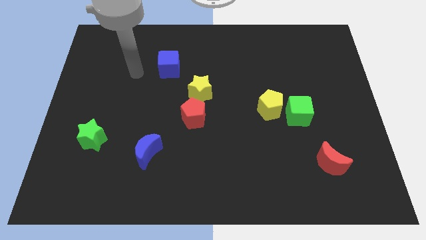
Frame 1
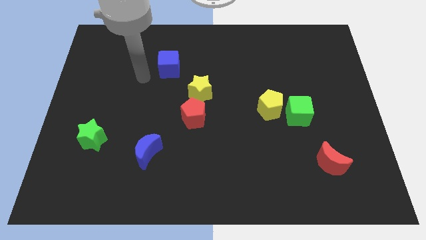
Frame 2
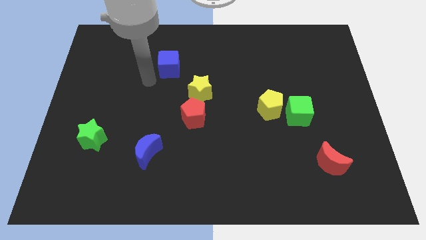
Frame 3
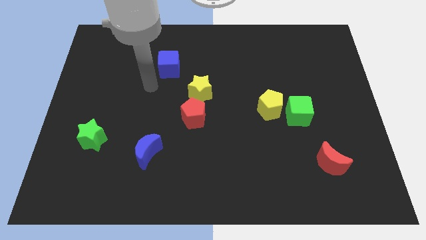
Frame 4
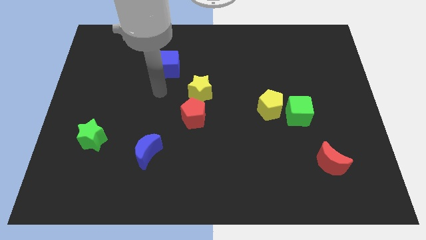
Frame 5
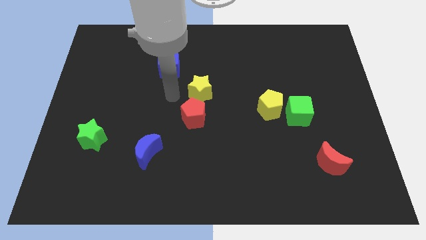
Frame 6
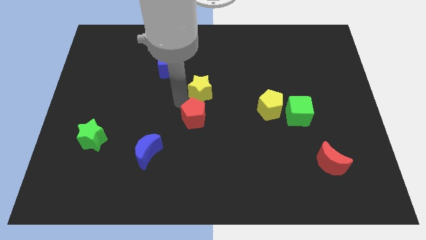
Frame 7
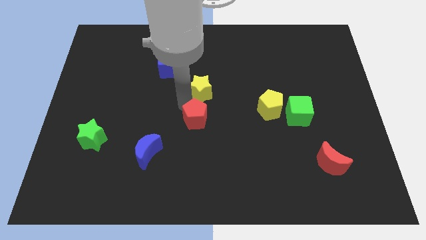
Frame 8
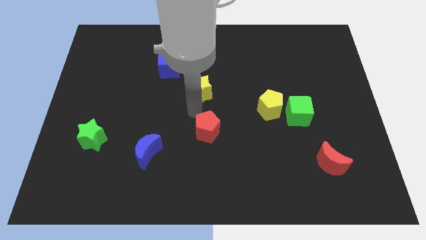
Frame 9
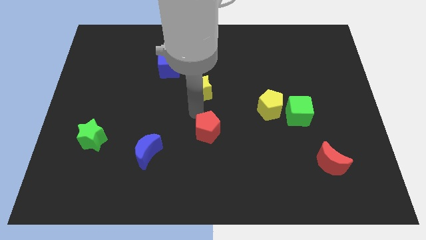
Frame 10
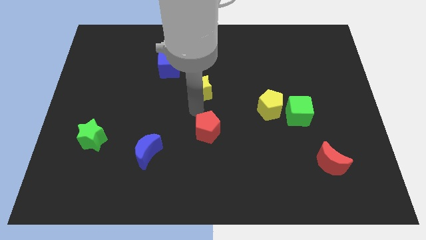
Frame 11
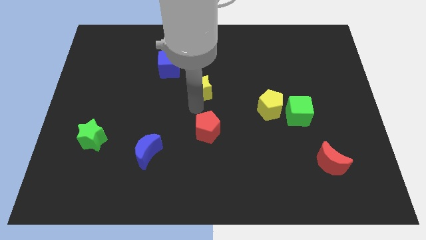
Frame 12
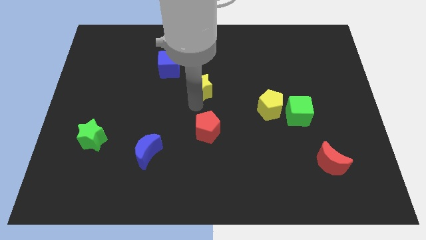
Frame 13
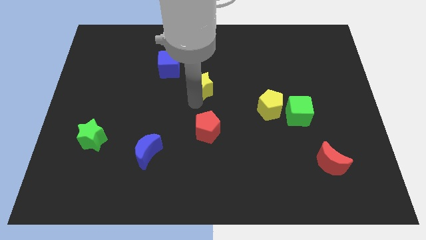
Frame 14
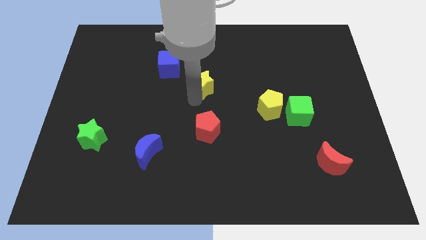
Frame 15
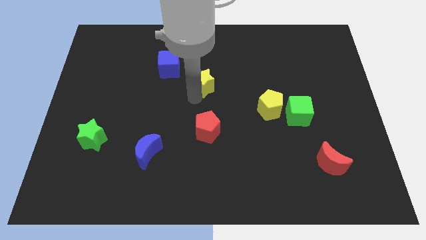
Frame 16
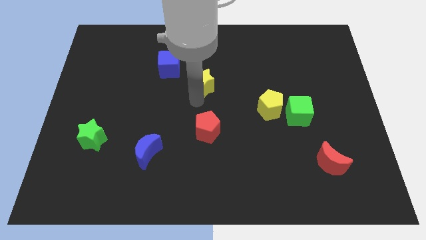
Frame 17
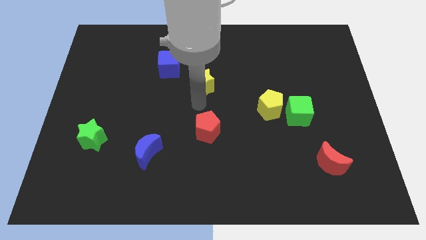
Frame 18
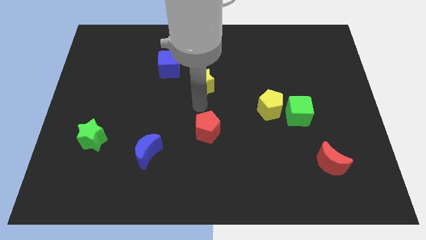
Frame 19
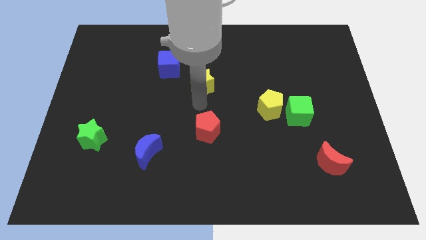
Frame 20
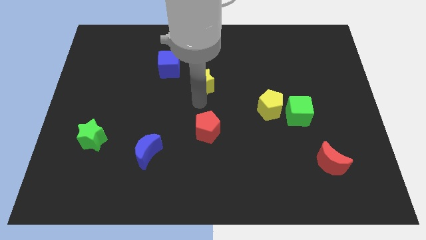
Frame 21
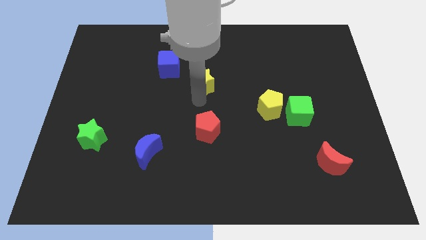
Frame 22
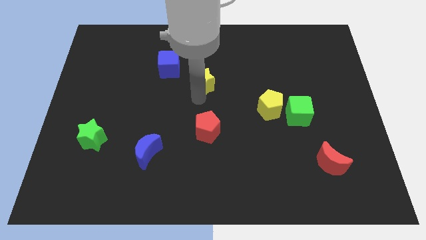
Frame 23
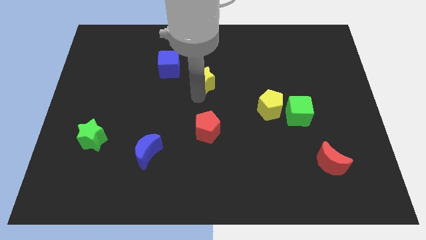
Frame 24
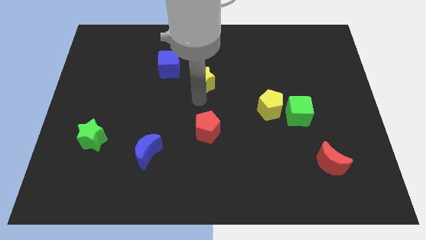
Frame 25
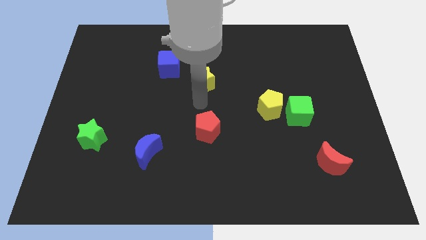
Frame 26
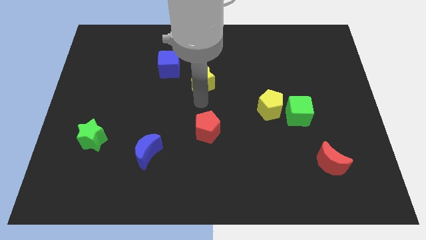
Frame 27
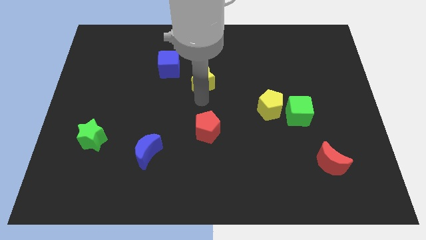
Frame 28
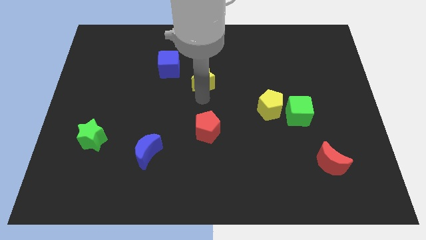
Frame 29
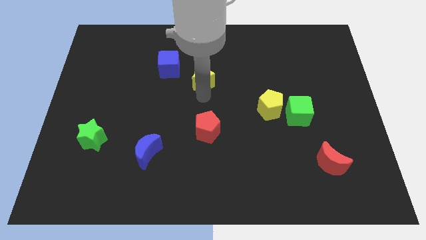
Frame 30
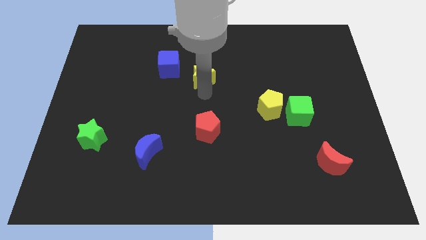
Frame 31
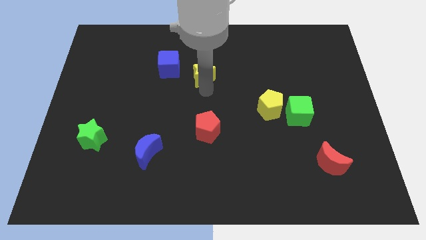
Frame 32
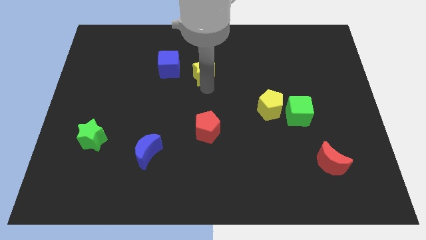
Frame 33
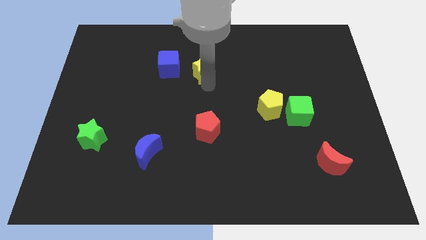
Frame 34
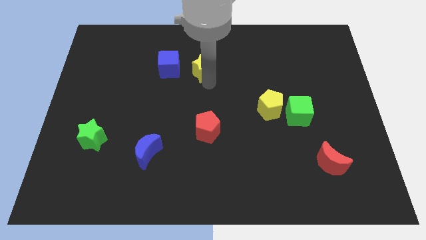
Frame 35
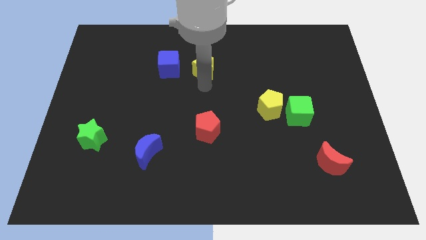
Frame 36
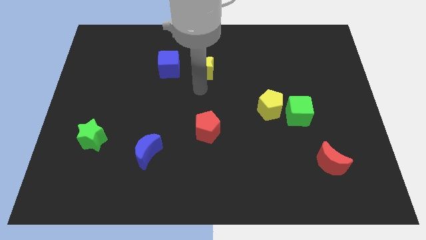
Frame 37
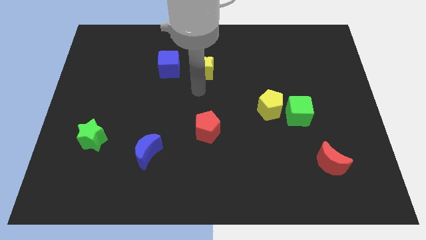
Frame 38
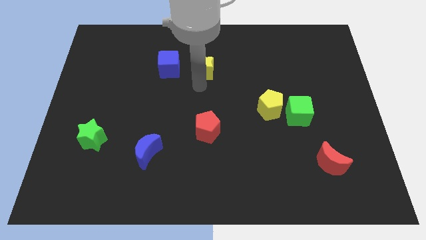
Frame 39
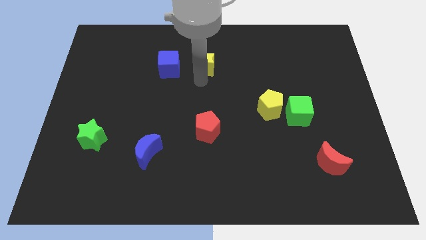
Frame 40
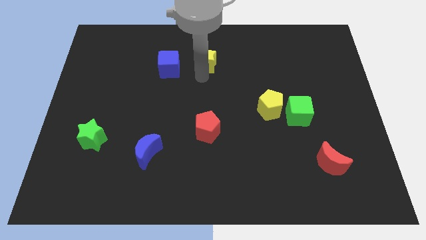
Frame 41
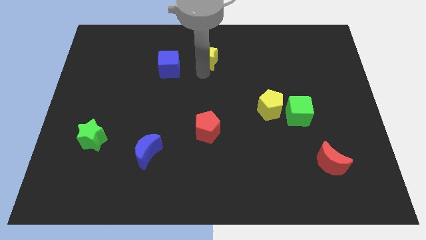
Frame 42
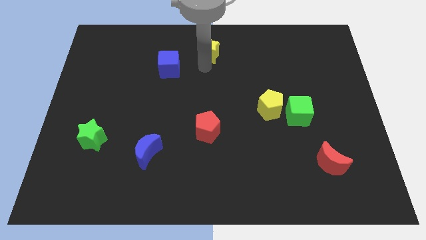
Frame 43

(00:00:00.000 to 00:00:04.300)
push the yellow star to the top

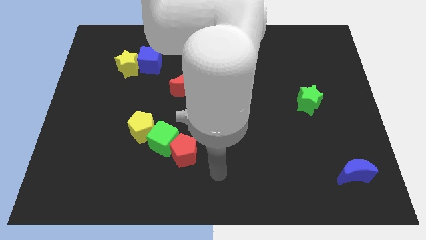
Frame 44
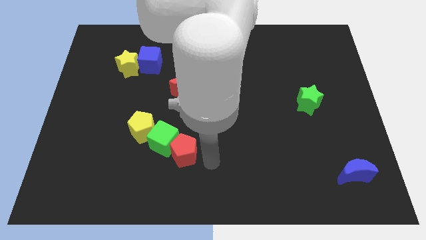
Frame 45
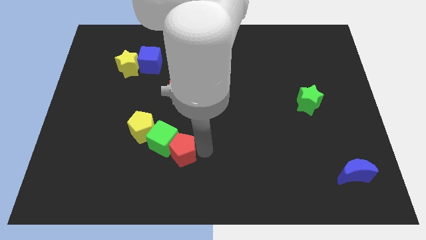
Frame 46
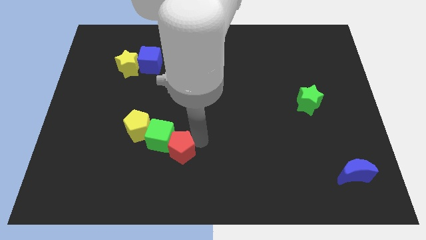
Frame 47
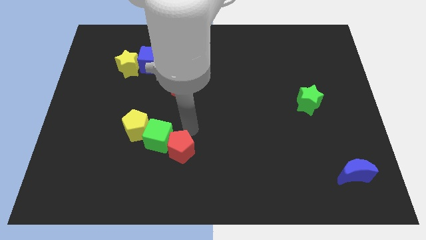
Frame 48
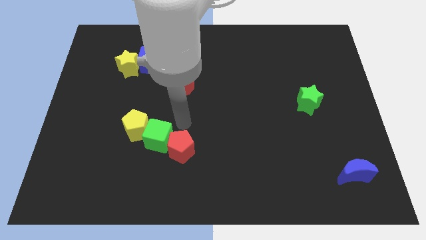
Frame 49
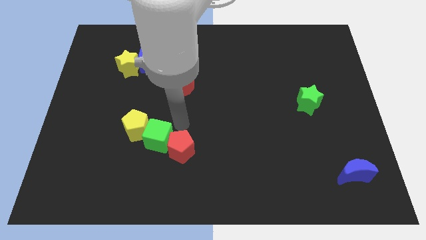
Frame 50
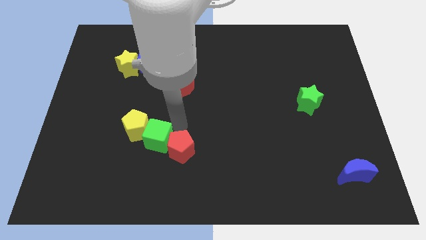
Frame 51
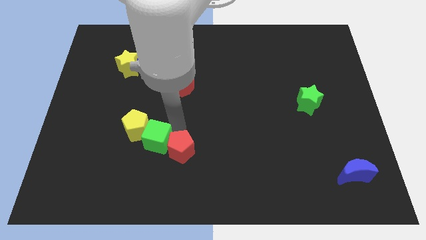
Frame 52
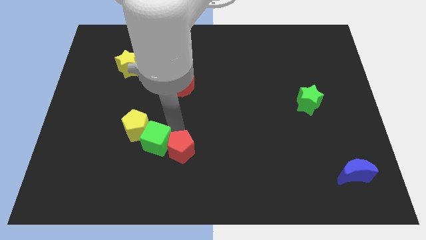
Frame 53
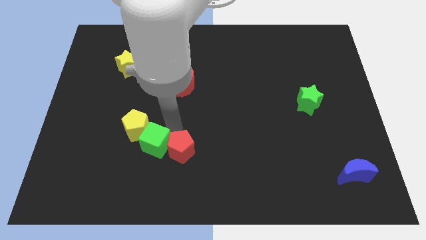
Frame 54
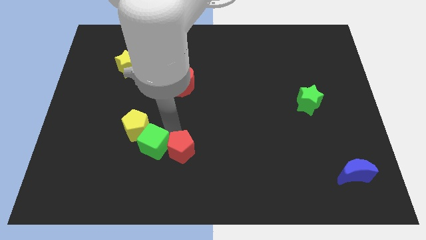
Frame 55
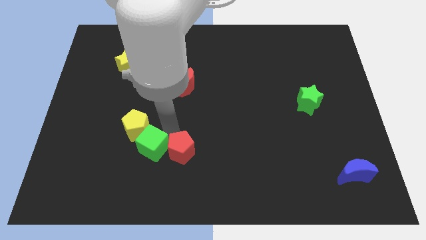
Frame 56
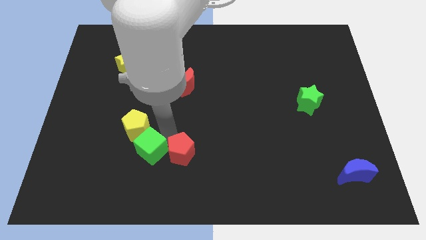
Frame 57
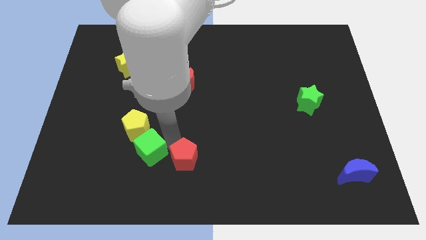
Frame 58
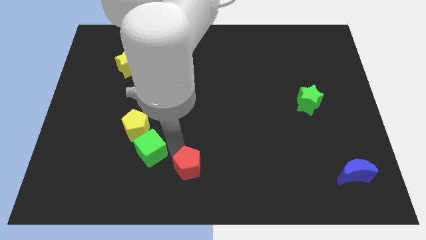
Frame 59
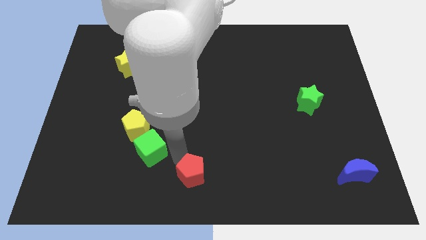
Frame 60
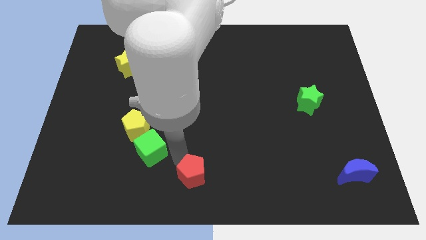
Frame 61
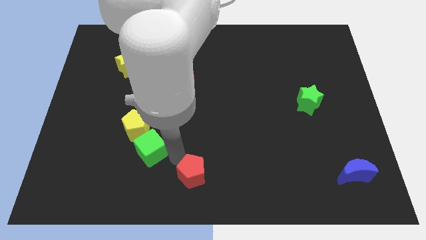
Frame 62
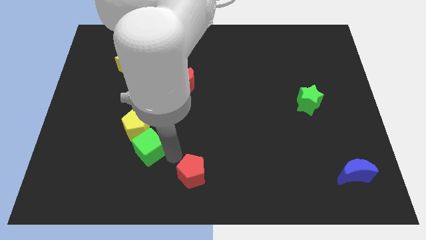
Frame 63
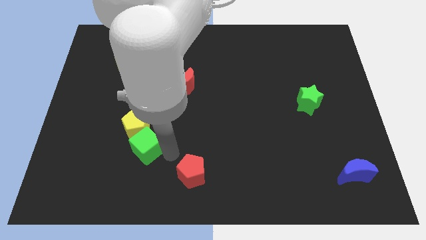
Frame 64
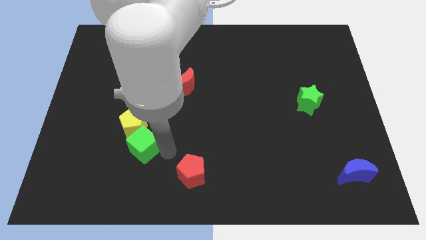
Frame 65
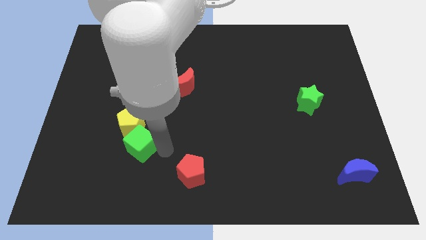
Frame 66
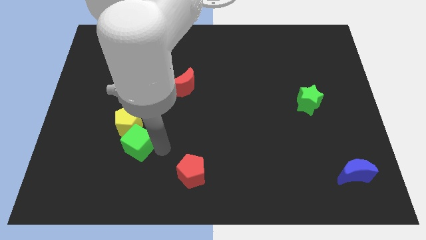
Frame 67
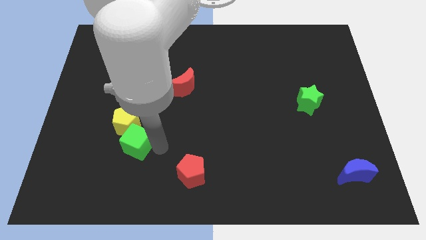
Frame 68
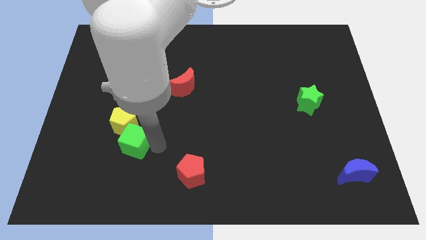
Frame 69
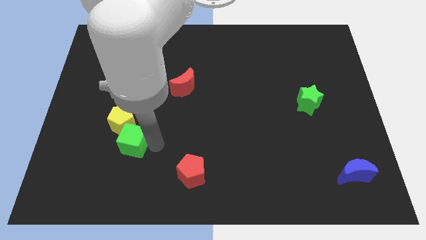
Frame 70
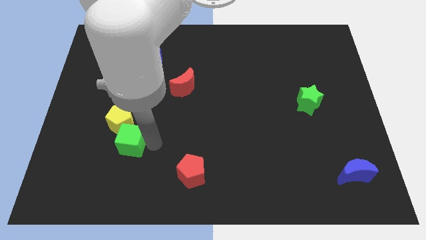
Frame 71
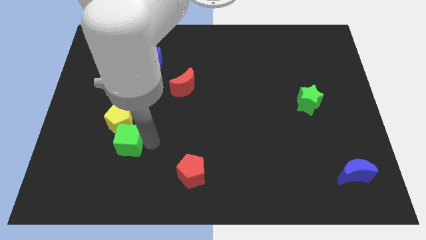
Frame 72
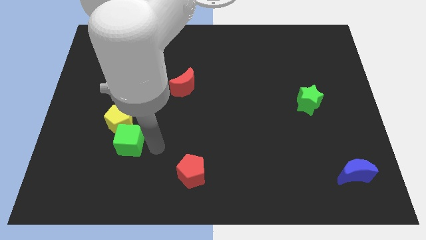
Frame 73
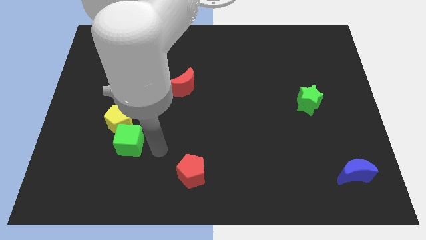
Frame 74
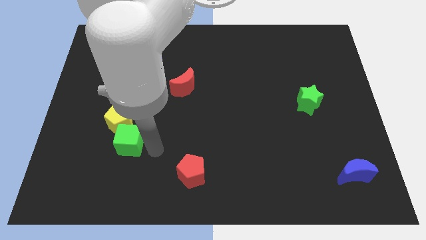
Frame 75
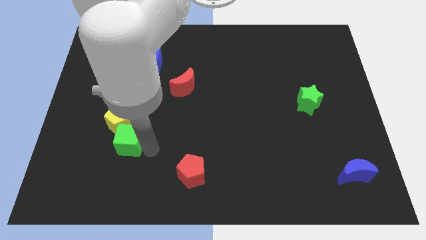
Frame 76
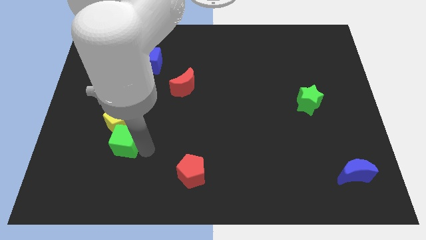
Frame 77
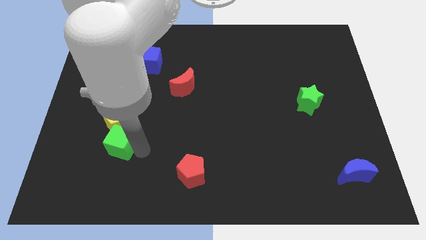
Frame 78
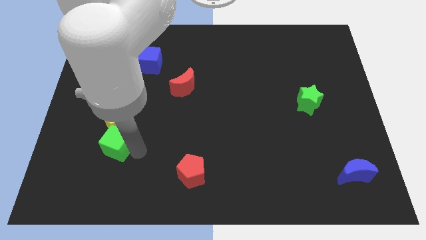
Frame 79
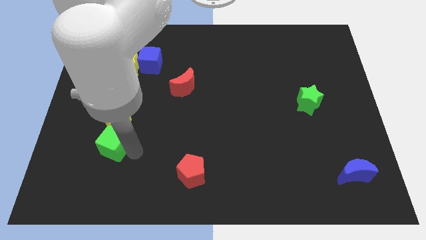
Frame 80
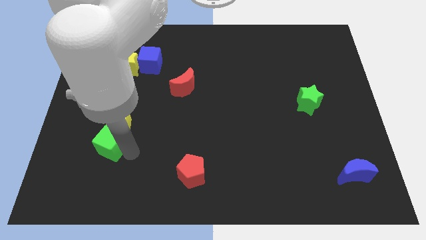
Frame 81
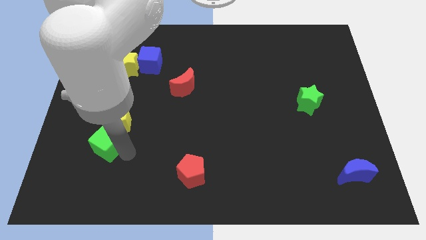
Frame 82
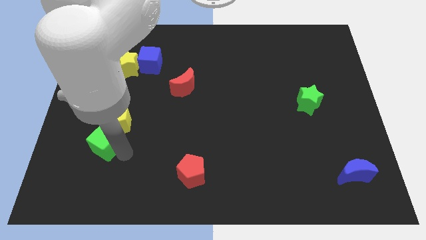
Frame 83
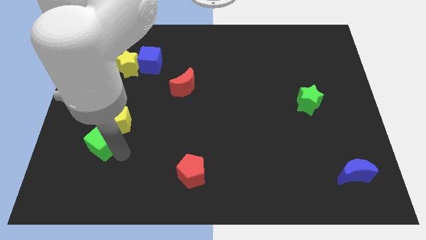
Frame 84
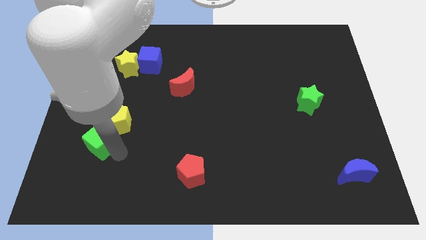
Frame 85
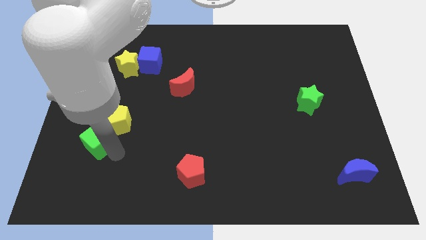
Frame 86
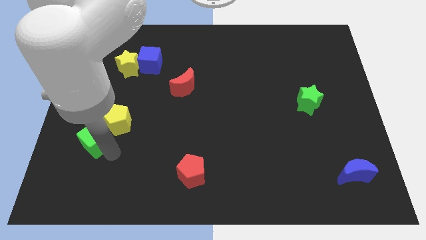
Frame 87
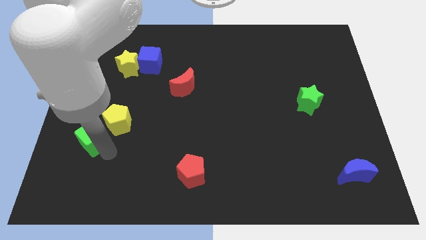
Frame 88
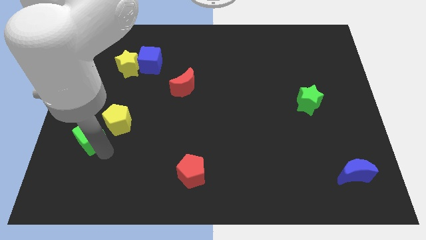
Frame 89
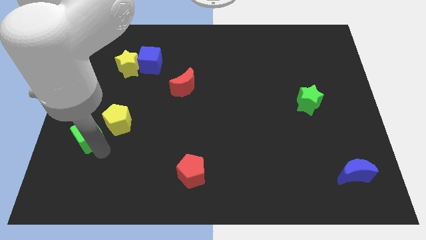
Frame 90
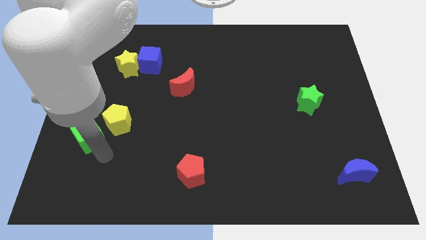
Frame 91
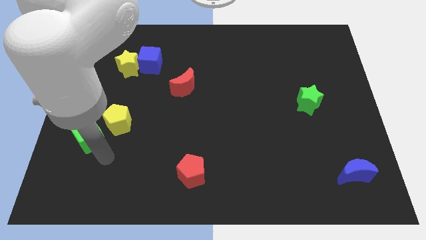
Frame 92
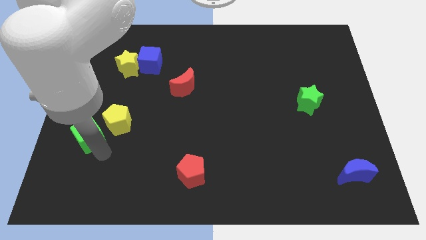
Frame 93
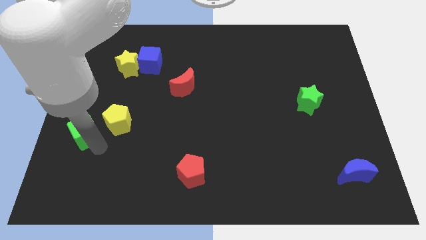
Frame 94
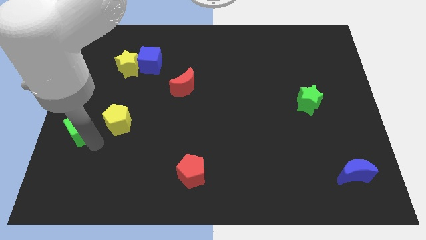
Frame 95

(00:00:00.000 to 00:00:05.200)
move the green cube to the left side
